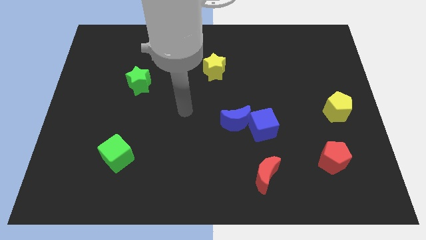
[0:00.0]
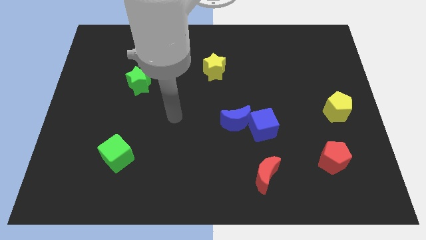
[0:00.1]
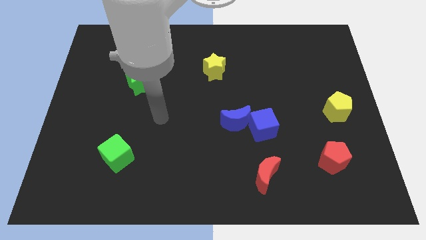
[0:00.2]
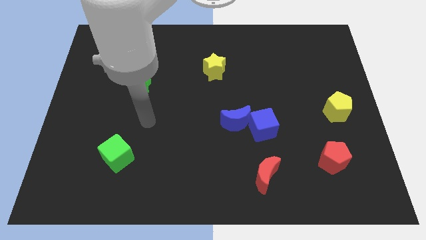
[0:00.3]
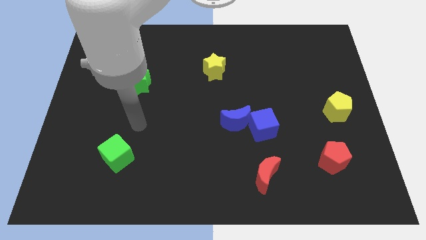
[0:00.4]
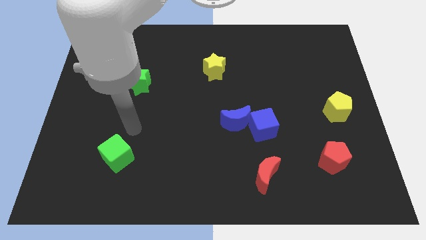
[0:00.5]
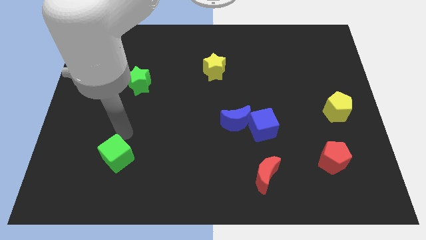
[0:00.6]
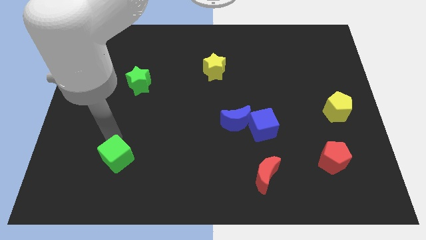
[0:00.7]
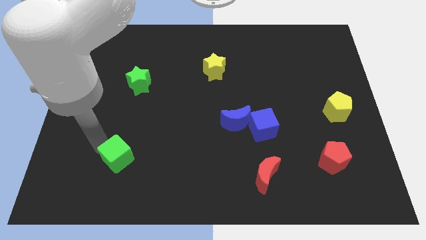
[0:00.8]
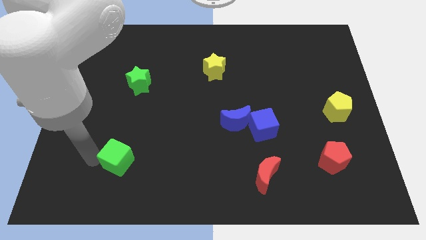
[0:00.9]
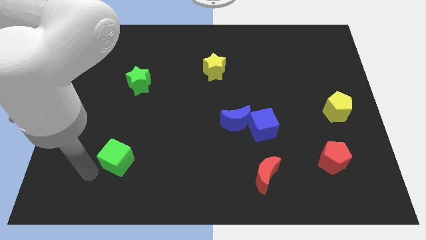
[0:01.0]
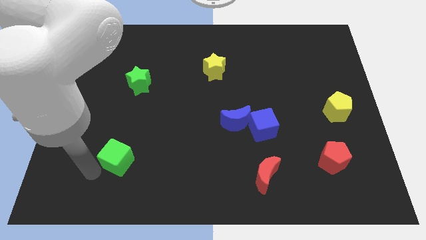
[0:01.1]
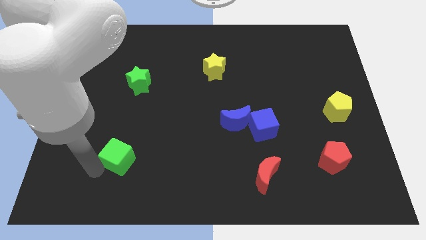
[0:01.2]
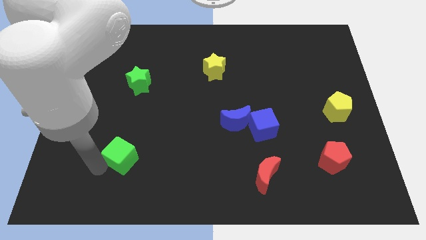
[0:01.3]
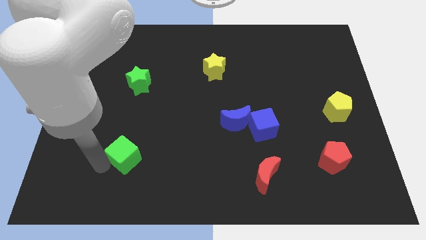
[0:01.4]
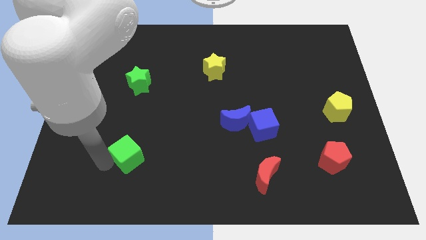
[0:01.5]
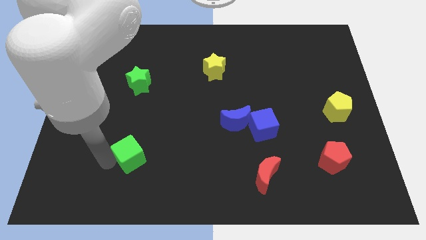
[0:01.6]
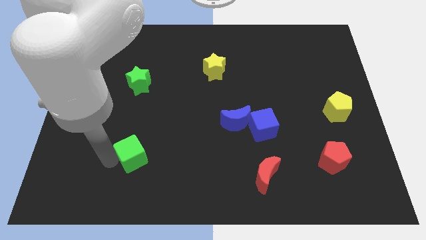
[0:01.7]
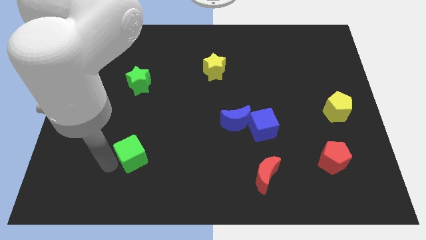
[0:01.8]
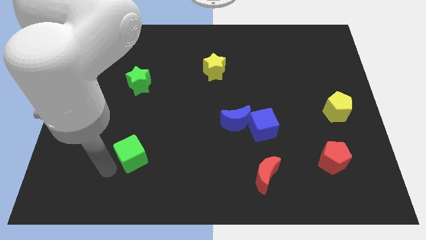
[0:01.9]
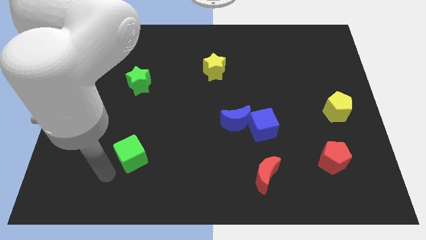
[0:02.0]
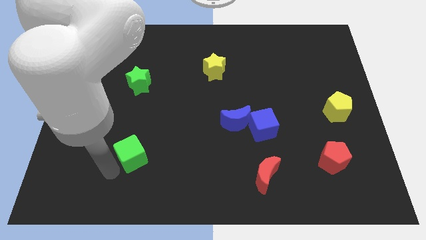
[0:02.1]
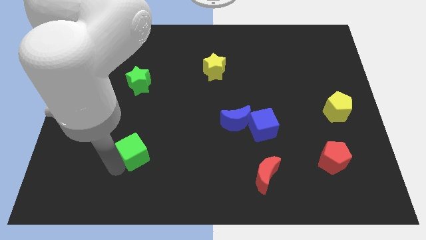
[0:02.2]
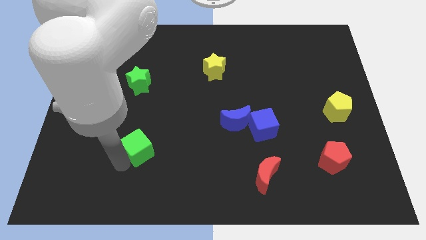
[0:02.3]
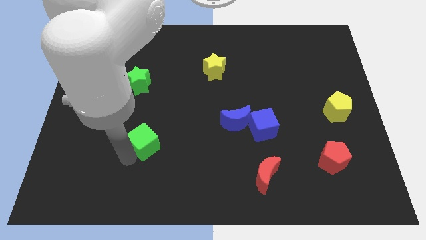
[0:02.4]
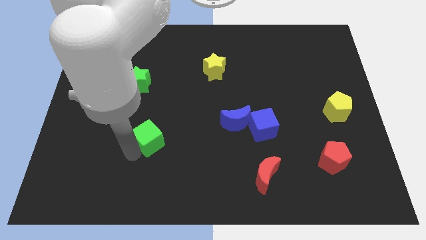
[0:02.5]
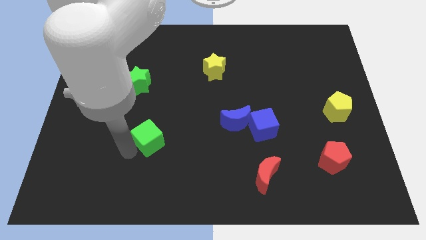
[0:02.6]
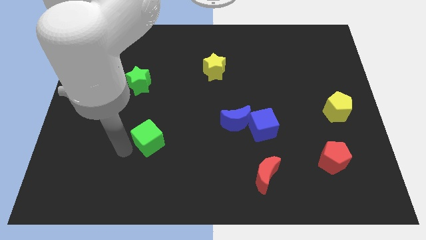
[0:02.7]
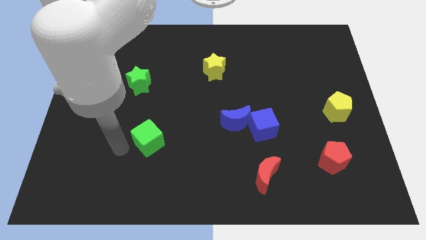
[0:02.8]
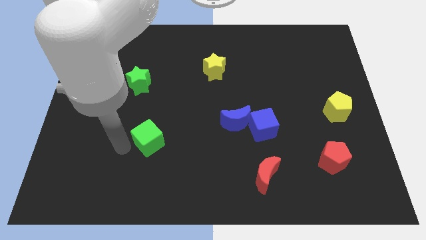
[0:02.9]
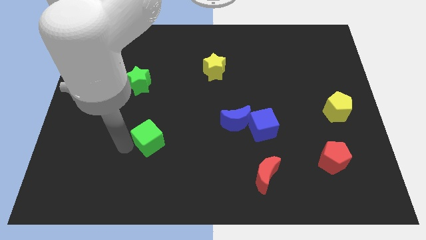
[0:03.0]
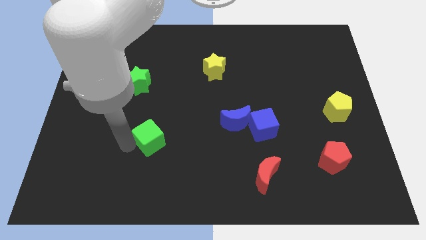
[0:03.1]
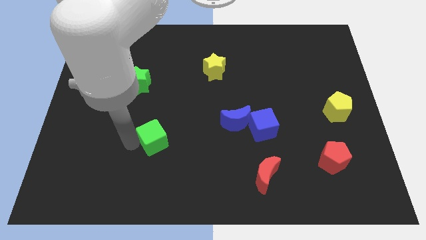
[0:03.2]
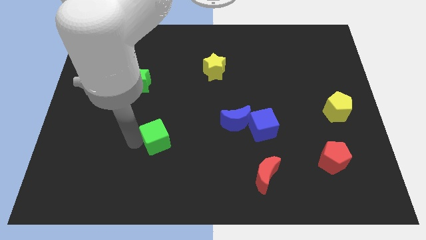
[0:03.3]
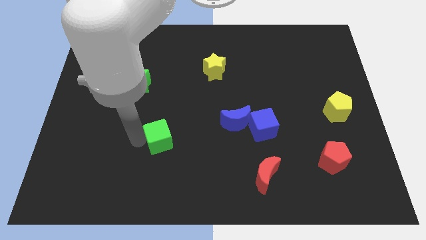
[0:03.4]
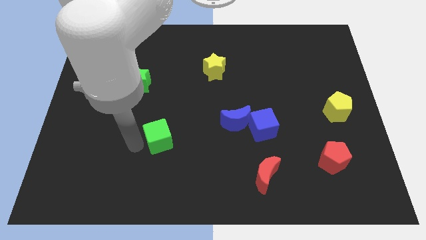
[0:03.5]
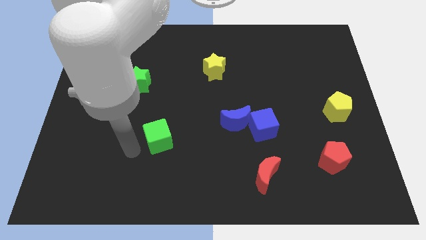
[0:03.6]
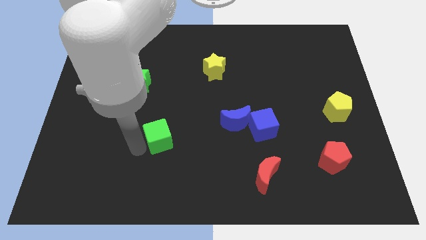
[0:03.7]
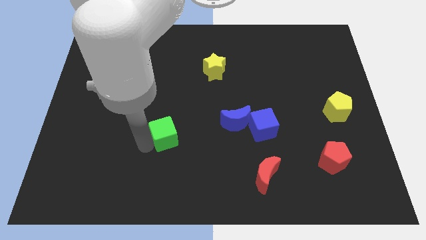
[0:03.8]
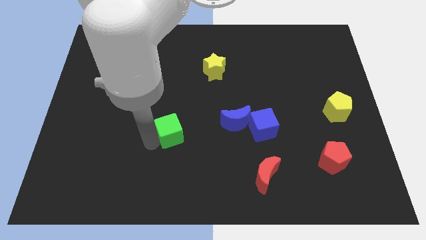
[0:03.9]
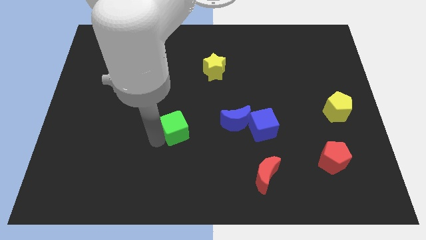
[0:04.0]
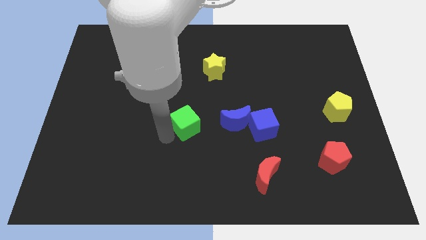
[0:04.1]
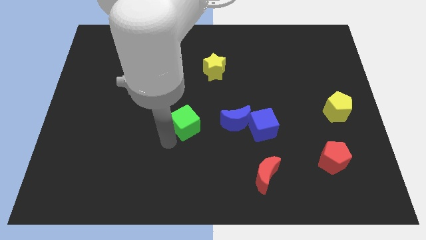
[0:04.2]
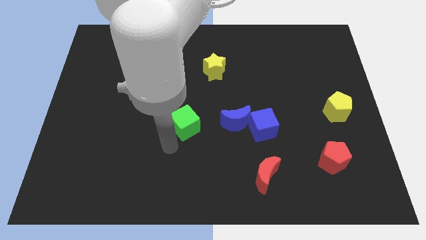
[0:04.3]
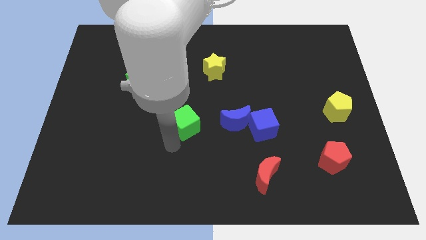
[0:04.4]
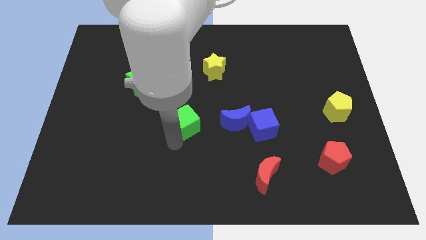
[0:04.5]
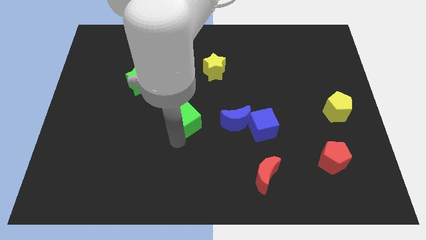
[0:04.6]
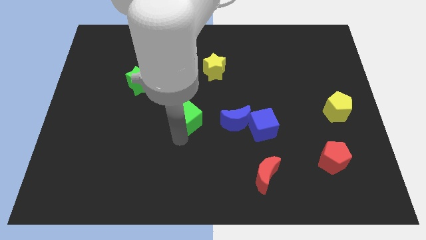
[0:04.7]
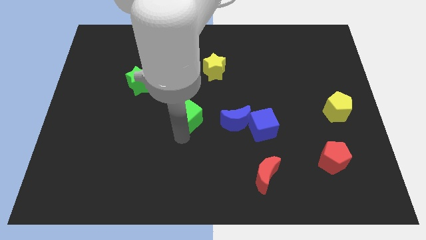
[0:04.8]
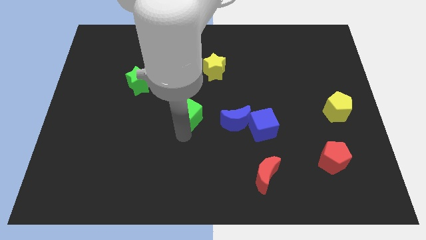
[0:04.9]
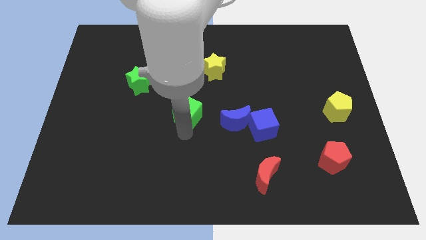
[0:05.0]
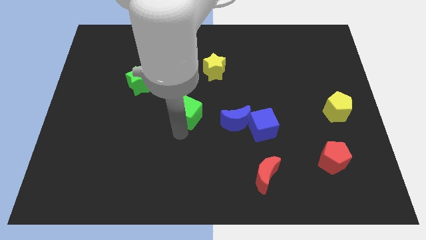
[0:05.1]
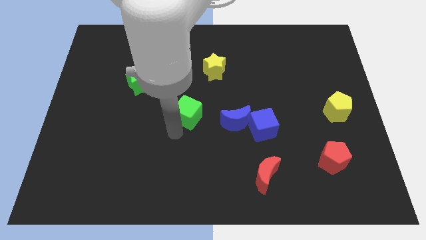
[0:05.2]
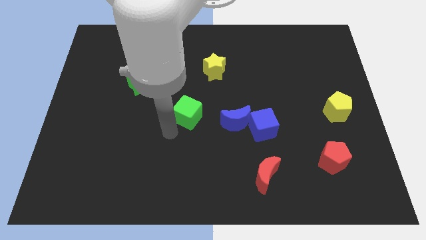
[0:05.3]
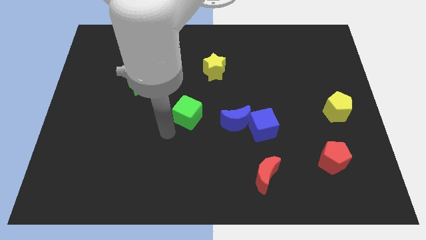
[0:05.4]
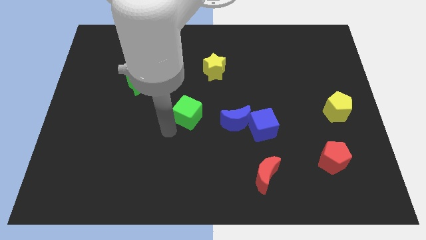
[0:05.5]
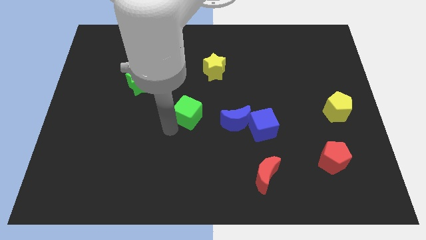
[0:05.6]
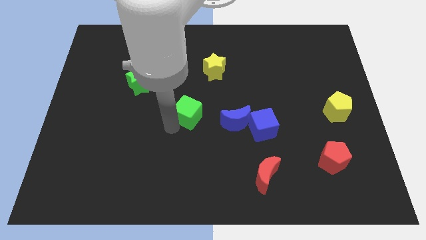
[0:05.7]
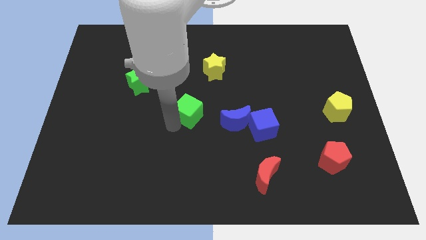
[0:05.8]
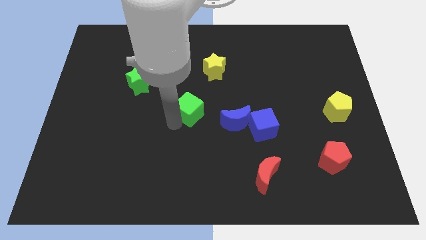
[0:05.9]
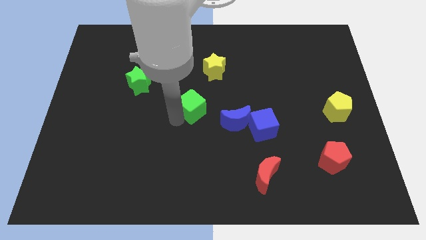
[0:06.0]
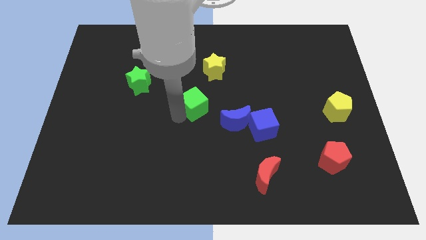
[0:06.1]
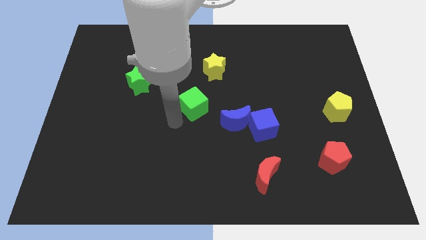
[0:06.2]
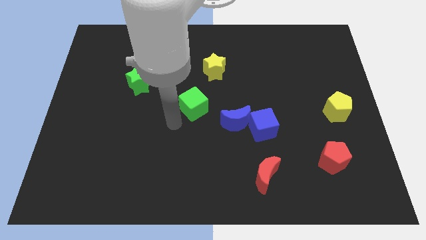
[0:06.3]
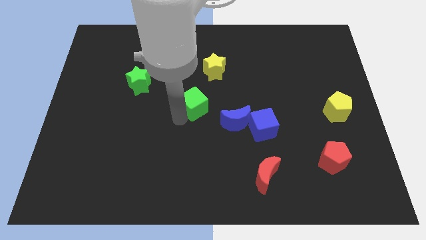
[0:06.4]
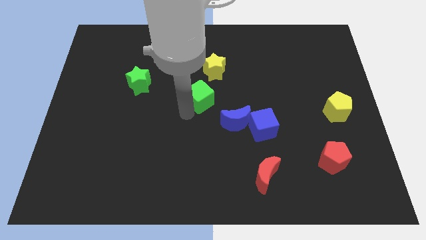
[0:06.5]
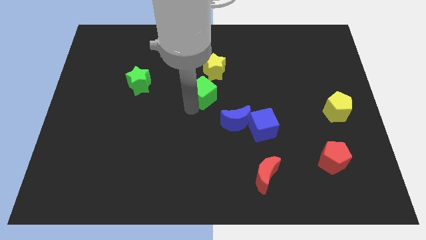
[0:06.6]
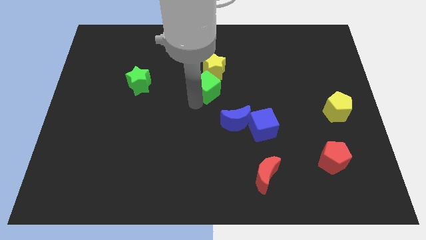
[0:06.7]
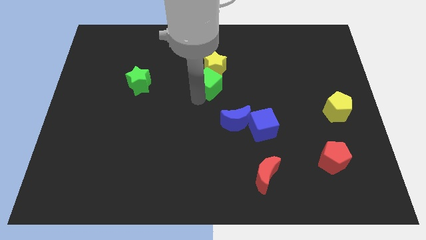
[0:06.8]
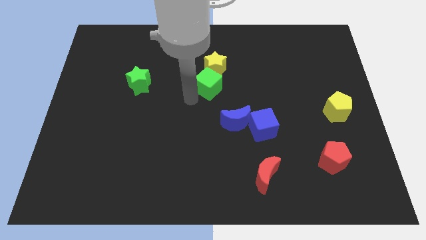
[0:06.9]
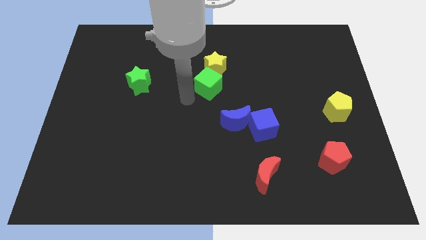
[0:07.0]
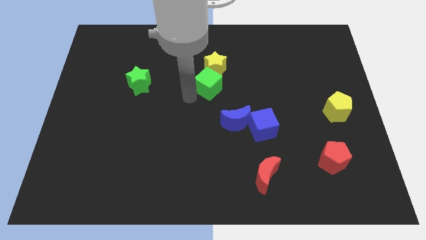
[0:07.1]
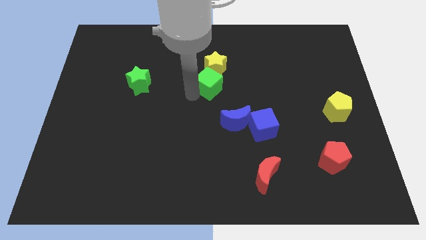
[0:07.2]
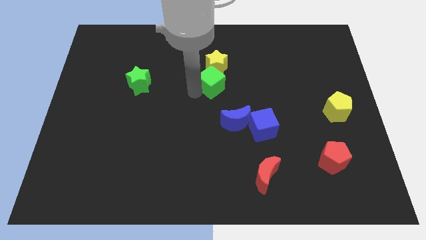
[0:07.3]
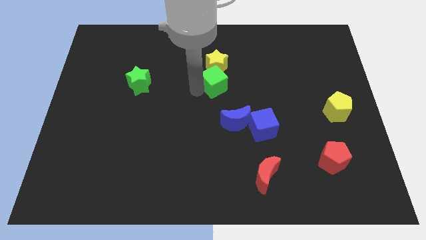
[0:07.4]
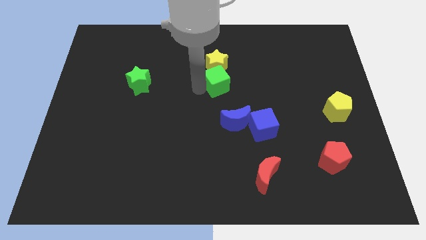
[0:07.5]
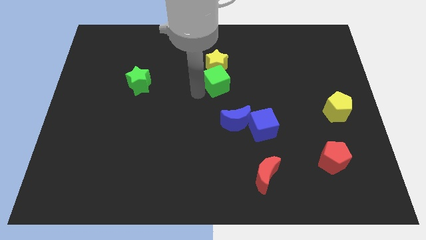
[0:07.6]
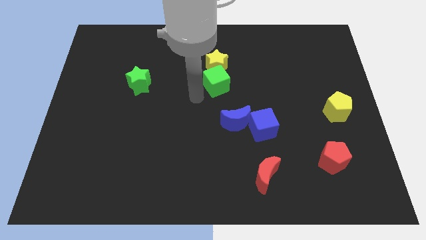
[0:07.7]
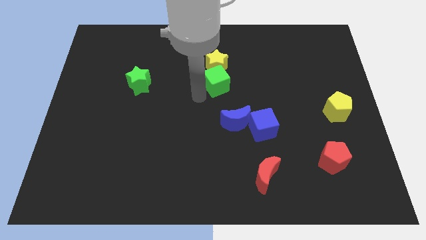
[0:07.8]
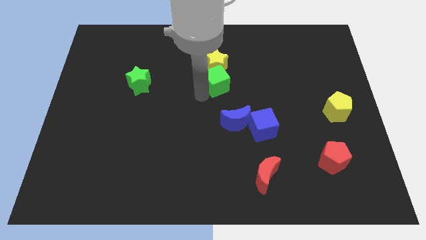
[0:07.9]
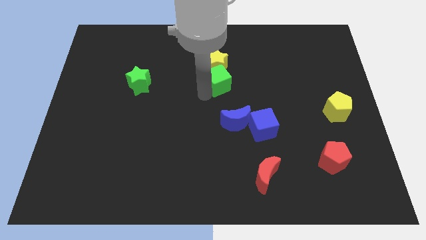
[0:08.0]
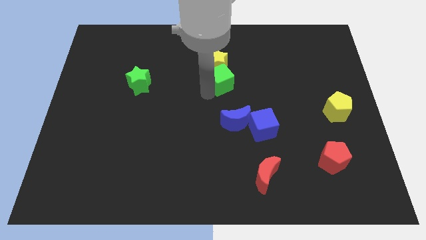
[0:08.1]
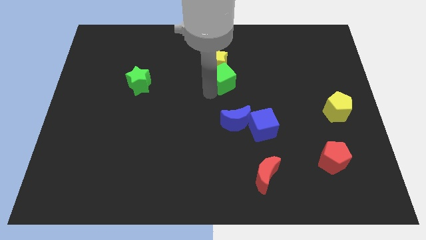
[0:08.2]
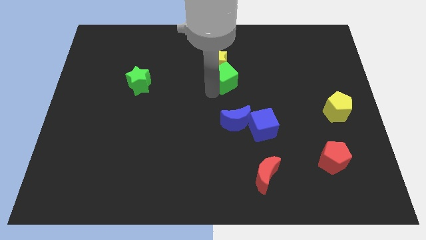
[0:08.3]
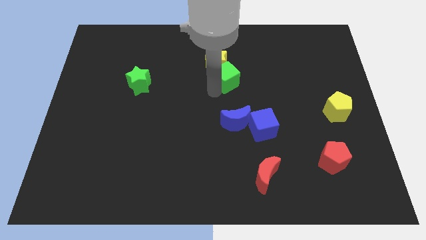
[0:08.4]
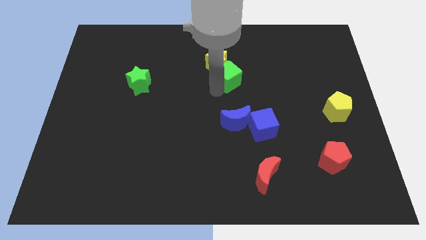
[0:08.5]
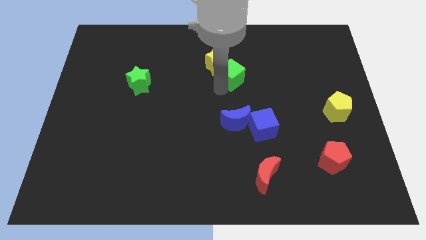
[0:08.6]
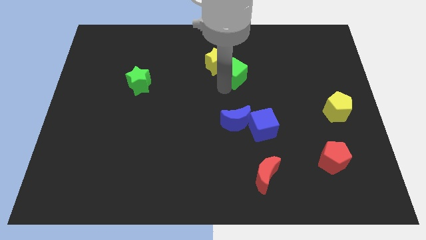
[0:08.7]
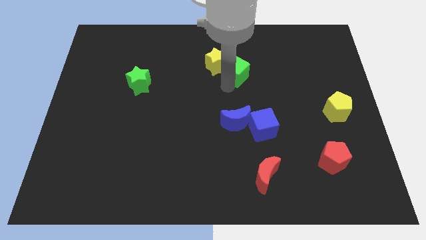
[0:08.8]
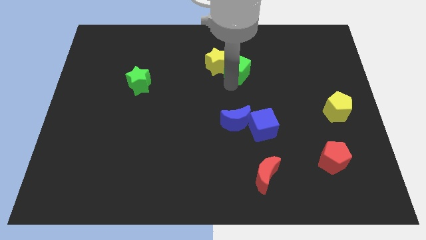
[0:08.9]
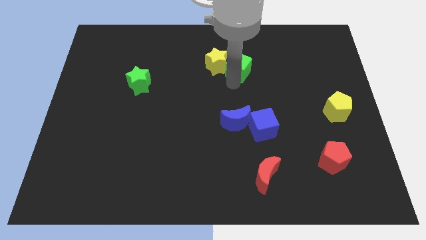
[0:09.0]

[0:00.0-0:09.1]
move the green cube to the top right of the yellow star
